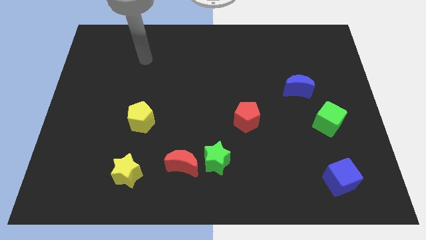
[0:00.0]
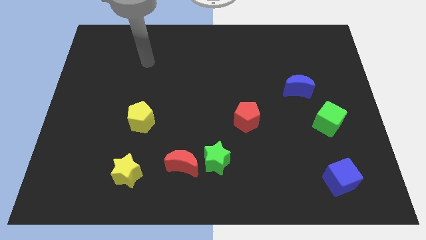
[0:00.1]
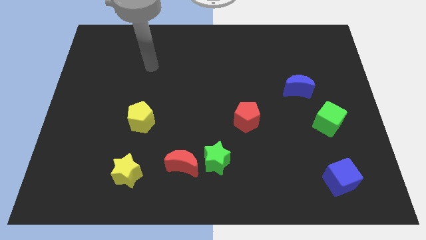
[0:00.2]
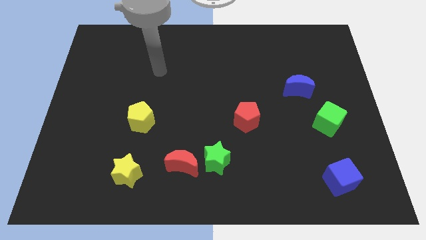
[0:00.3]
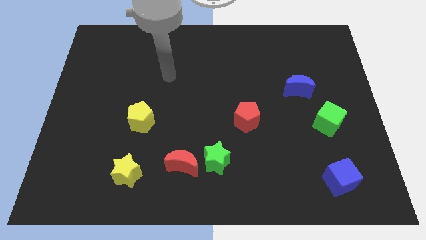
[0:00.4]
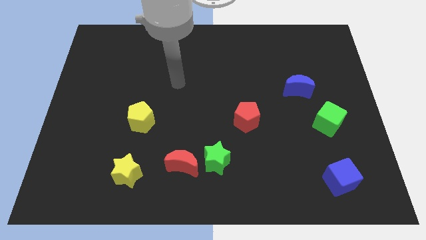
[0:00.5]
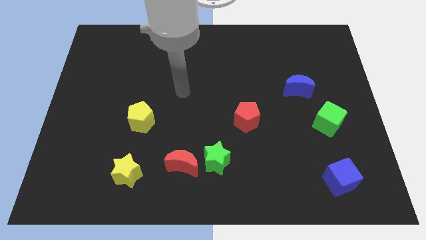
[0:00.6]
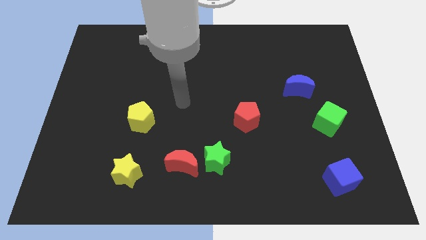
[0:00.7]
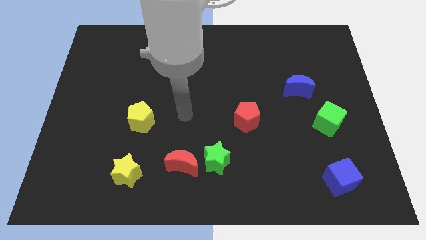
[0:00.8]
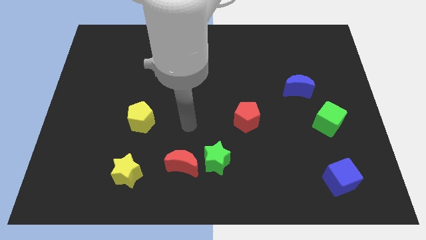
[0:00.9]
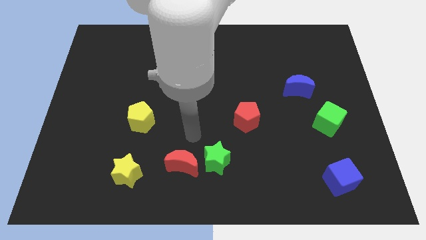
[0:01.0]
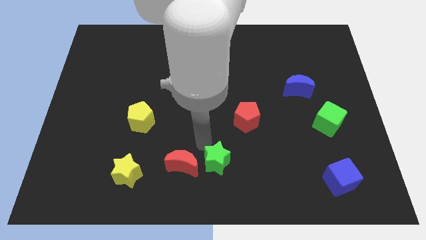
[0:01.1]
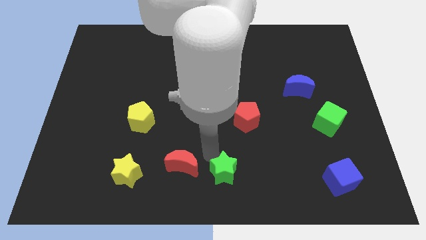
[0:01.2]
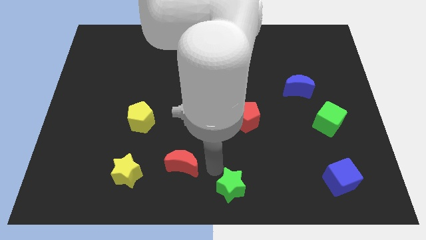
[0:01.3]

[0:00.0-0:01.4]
separate the red moon from the green star

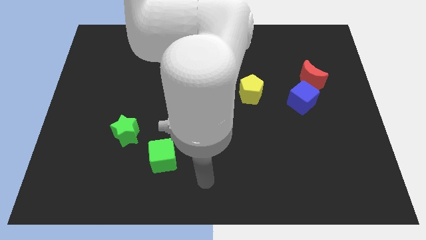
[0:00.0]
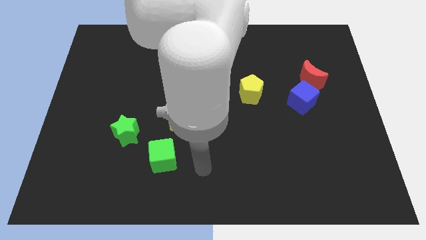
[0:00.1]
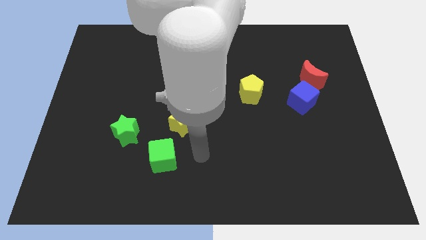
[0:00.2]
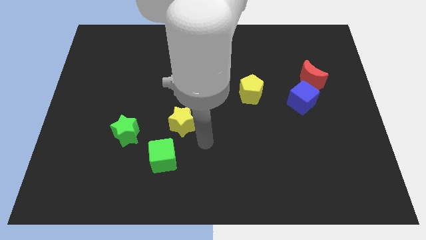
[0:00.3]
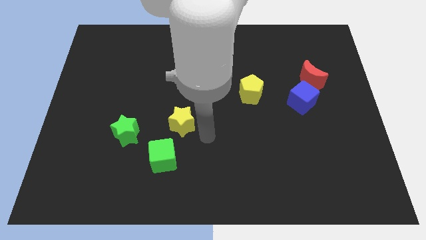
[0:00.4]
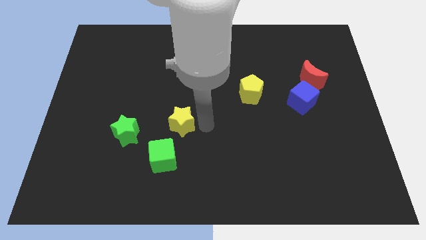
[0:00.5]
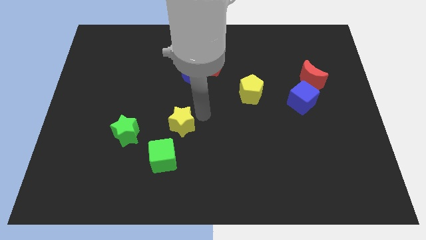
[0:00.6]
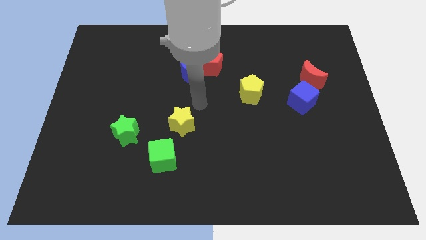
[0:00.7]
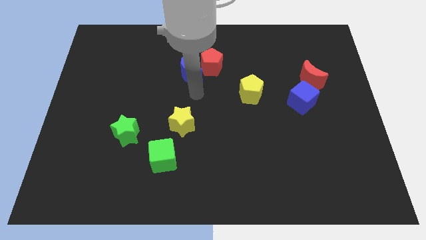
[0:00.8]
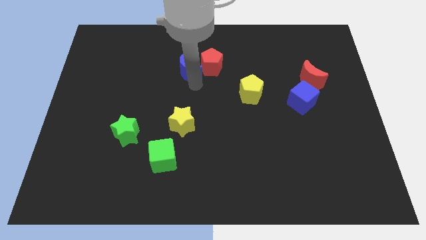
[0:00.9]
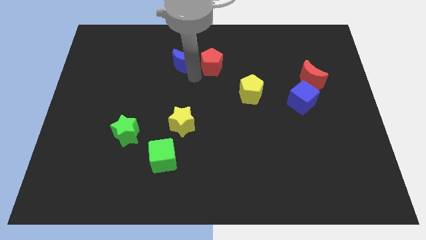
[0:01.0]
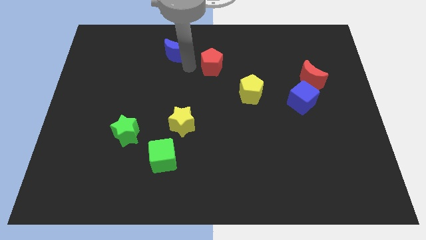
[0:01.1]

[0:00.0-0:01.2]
separate the red pentagon from the blue moon

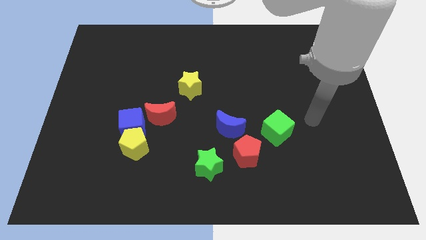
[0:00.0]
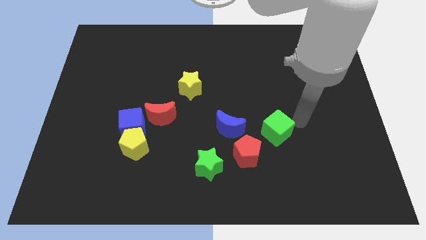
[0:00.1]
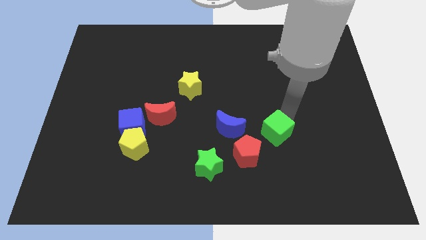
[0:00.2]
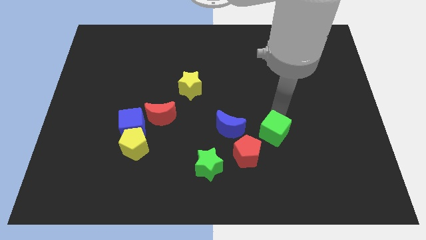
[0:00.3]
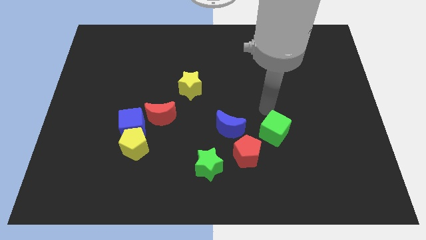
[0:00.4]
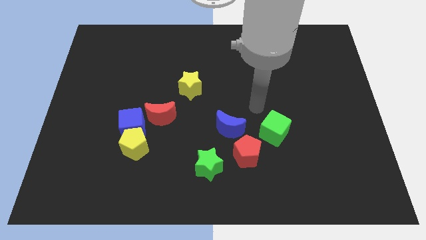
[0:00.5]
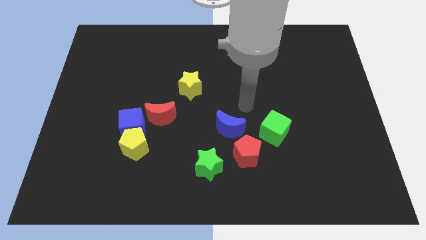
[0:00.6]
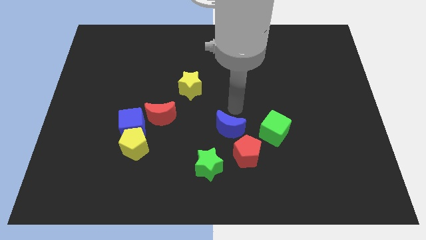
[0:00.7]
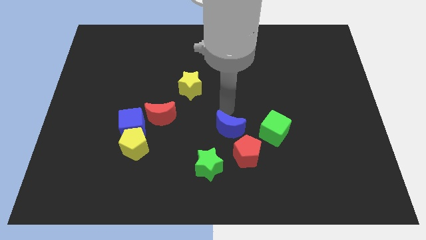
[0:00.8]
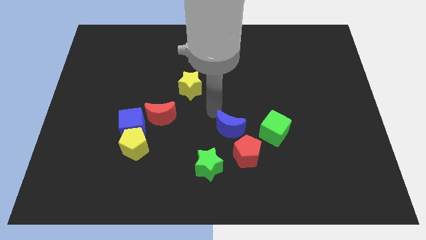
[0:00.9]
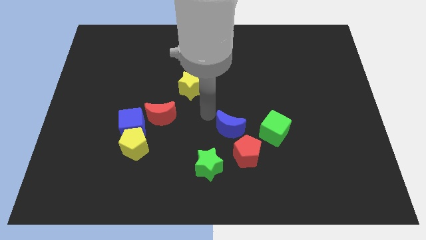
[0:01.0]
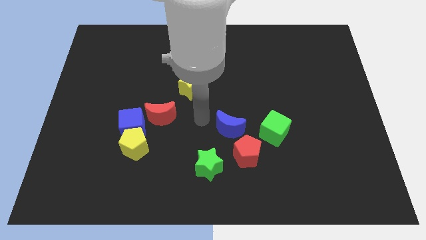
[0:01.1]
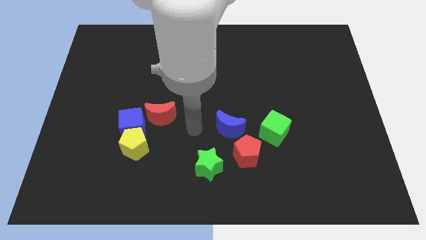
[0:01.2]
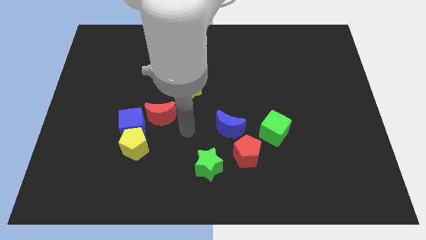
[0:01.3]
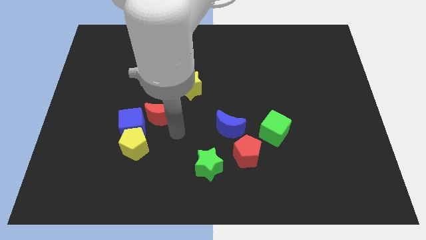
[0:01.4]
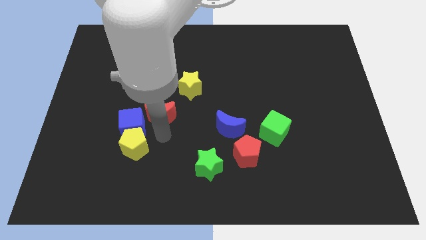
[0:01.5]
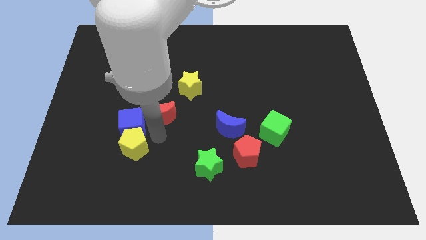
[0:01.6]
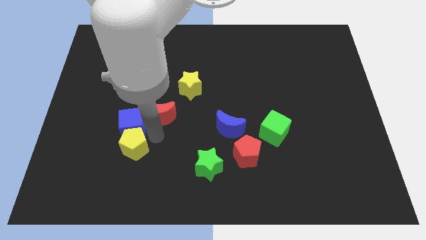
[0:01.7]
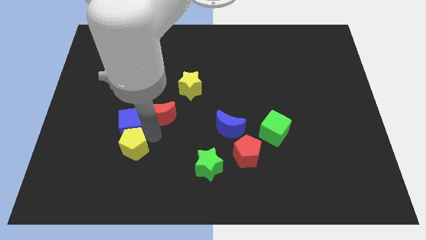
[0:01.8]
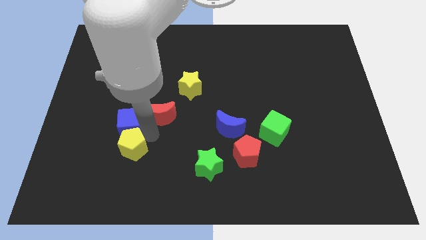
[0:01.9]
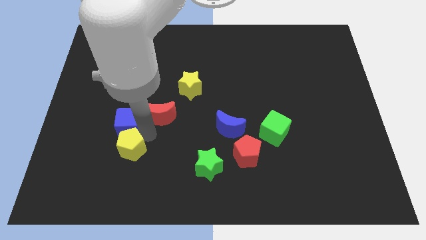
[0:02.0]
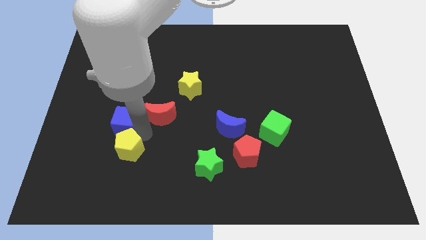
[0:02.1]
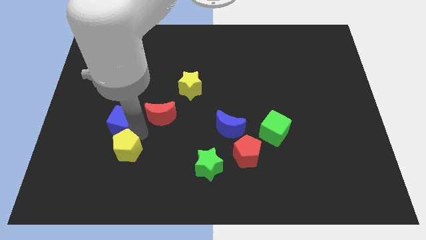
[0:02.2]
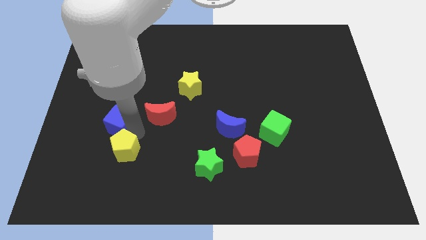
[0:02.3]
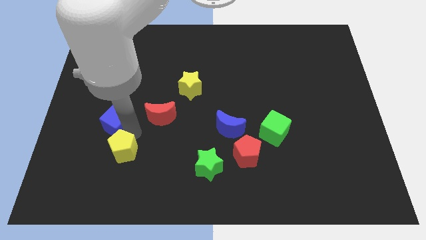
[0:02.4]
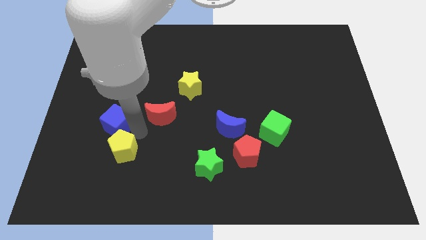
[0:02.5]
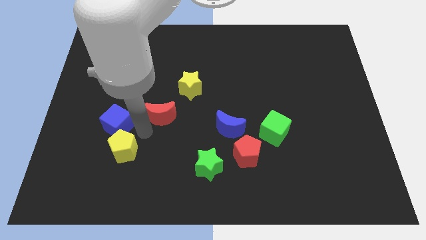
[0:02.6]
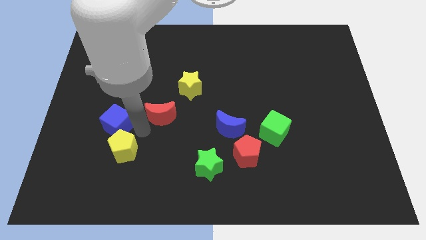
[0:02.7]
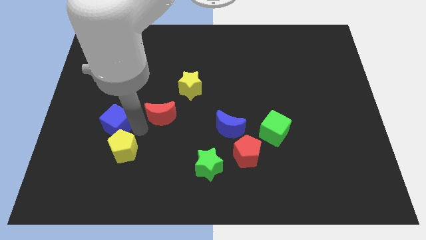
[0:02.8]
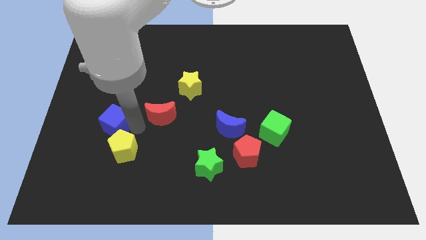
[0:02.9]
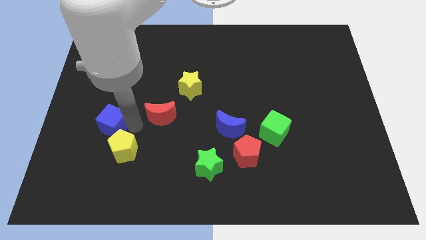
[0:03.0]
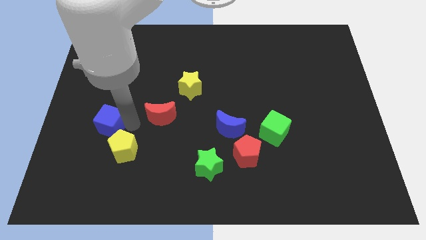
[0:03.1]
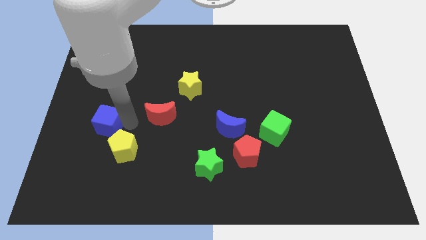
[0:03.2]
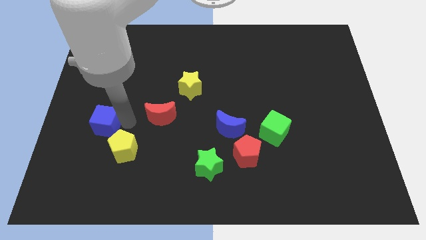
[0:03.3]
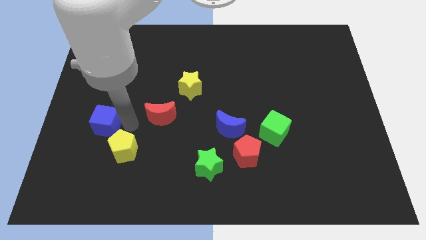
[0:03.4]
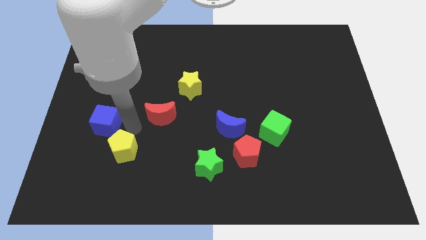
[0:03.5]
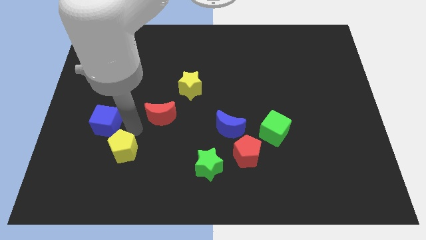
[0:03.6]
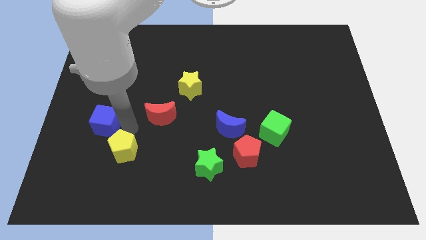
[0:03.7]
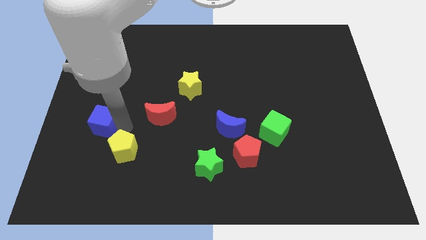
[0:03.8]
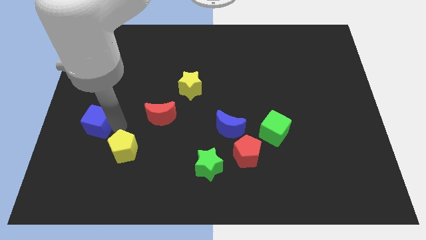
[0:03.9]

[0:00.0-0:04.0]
move the blue cube away from the yellow pentagon and red moon

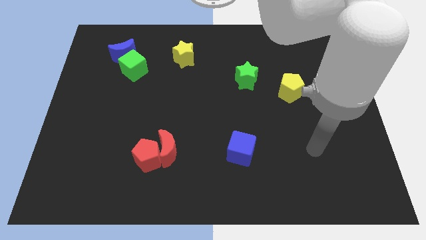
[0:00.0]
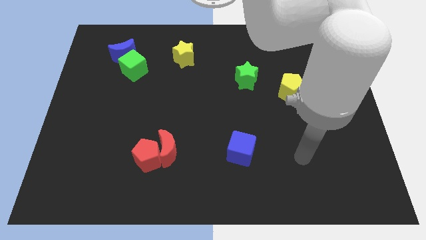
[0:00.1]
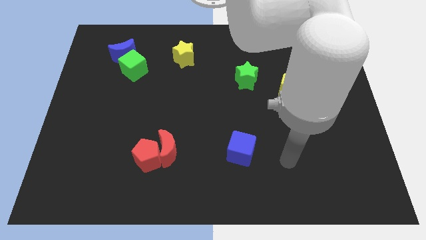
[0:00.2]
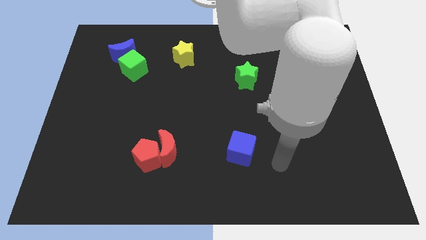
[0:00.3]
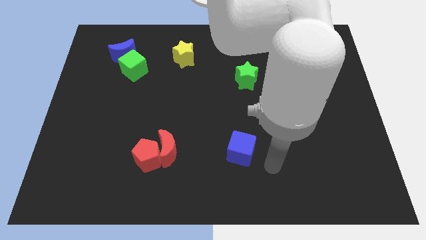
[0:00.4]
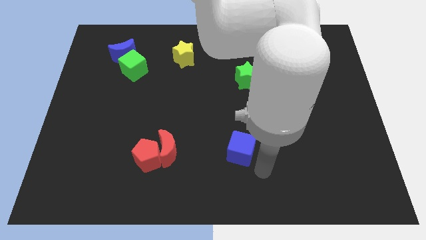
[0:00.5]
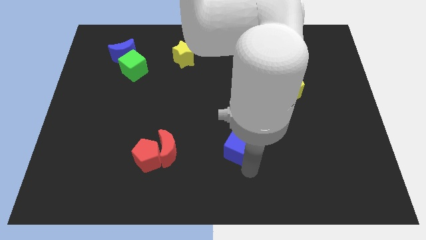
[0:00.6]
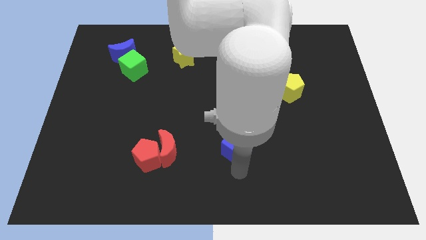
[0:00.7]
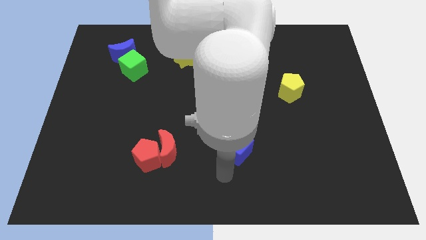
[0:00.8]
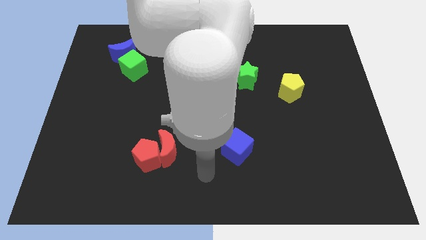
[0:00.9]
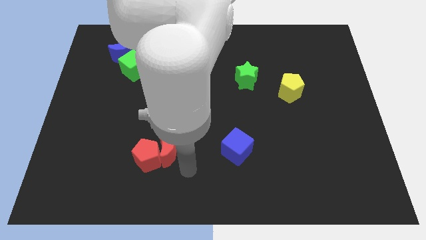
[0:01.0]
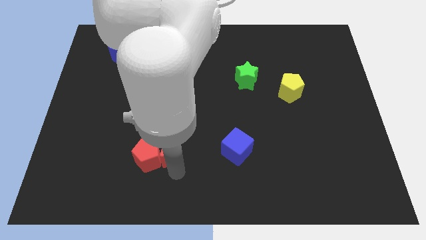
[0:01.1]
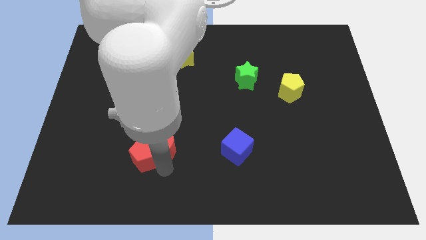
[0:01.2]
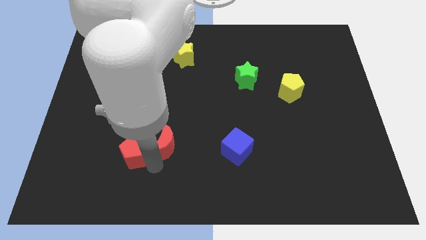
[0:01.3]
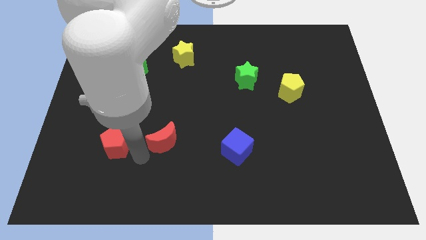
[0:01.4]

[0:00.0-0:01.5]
move the red moon away from the red pentagon

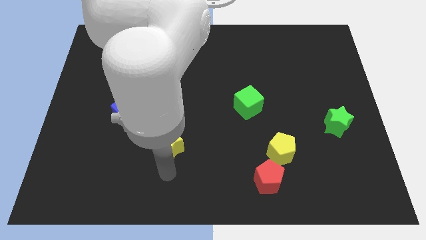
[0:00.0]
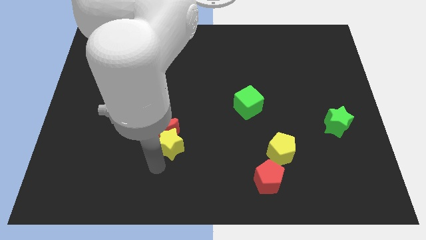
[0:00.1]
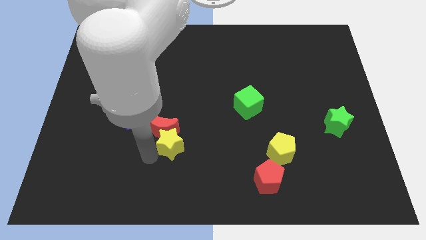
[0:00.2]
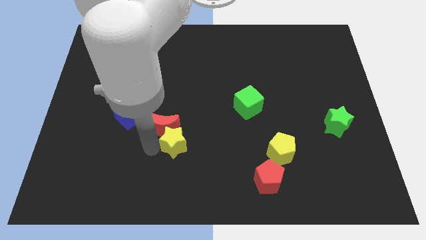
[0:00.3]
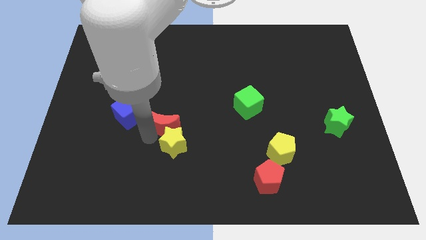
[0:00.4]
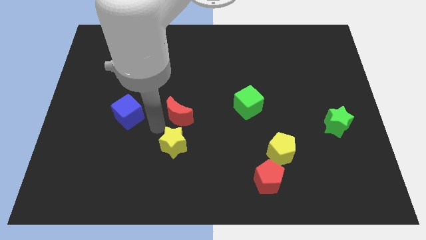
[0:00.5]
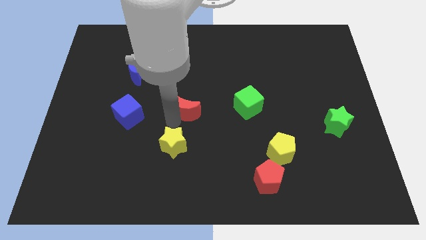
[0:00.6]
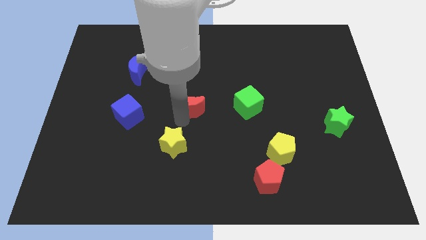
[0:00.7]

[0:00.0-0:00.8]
separate the yellow star from the red moon

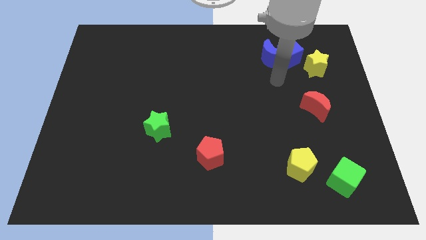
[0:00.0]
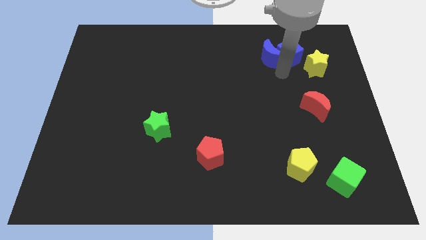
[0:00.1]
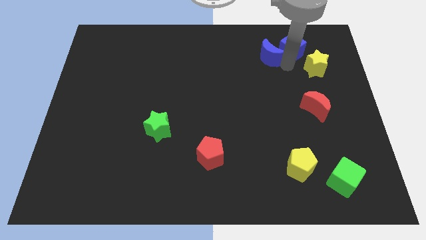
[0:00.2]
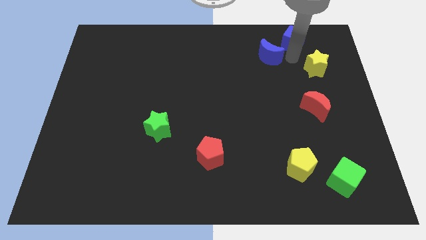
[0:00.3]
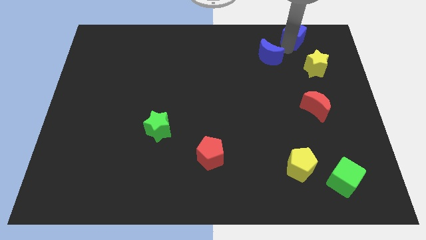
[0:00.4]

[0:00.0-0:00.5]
pull the blue moon apart from the blue cube

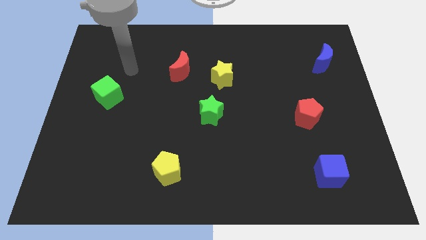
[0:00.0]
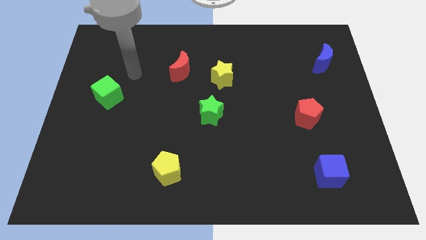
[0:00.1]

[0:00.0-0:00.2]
pull the red moon apart from the yellow star
